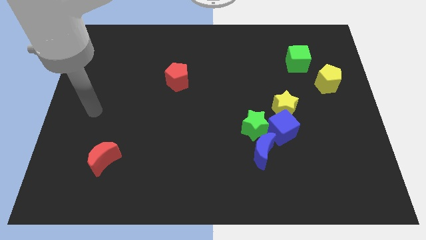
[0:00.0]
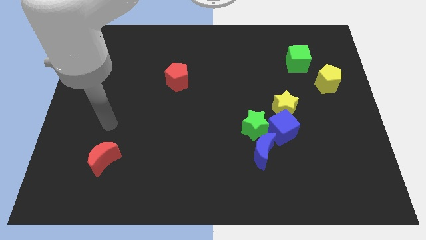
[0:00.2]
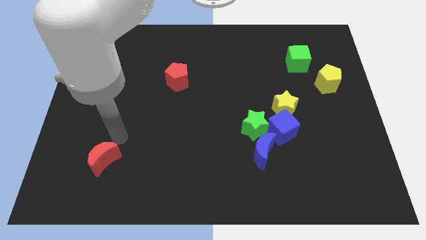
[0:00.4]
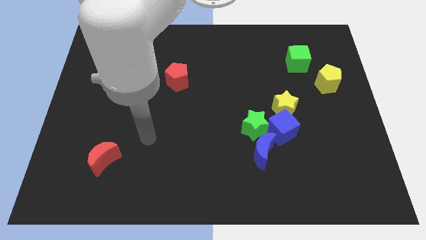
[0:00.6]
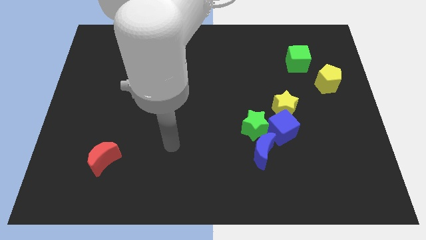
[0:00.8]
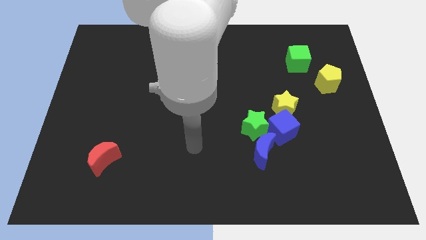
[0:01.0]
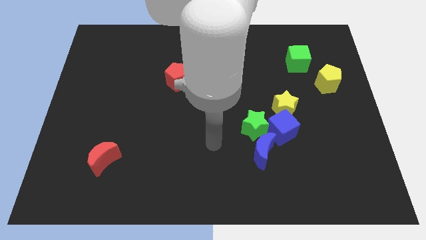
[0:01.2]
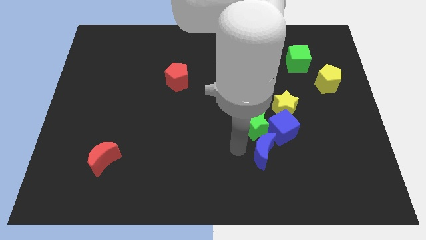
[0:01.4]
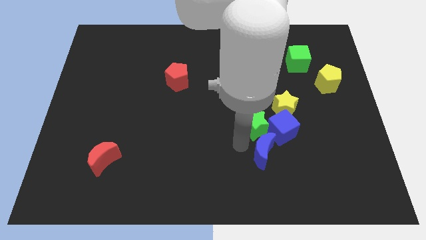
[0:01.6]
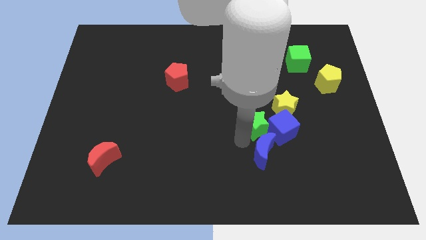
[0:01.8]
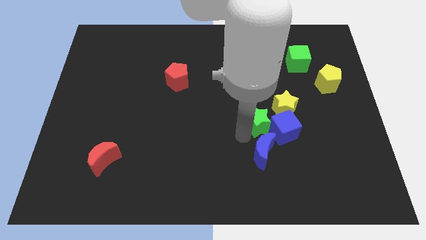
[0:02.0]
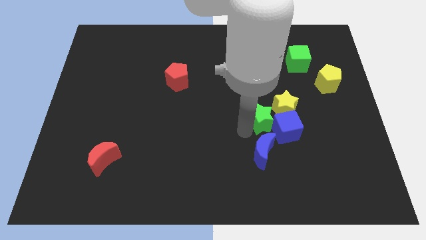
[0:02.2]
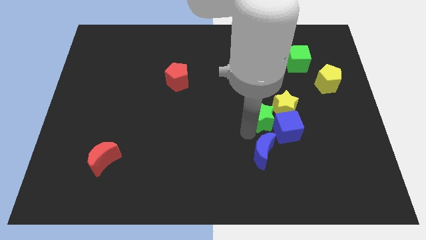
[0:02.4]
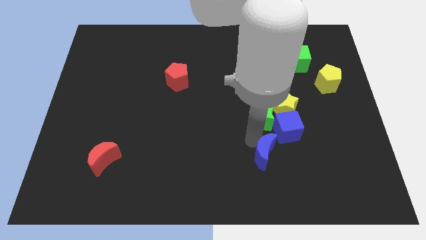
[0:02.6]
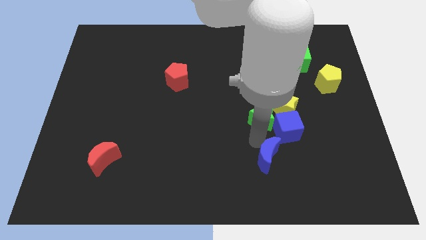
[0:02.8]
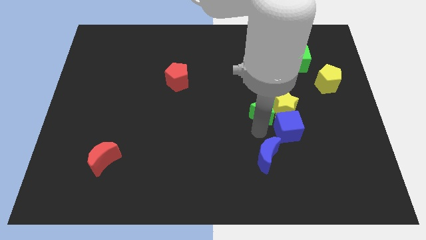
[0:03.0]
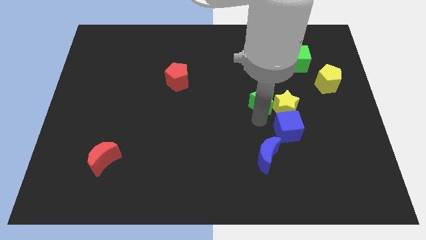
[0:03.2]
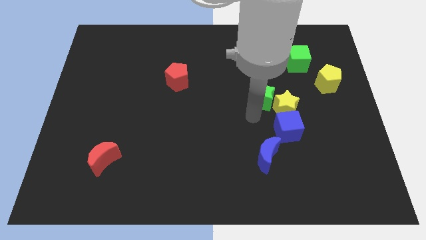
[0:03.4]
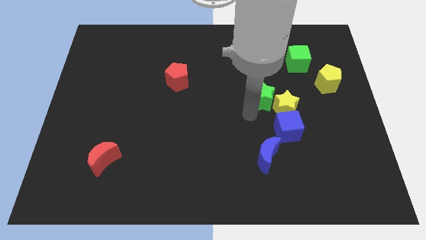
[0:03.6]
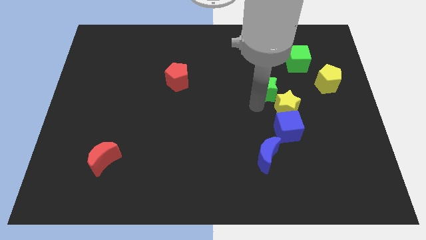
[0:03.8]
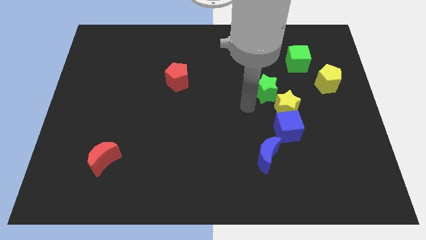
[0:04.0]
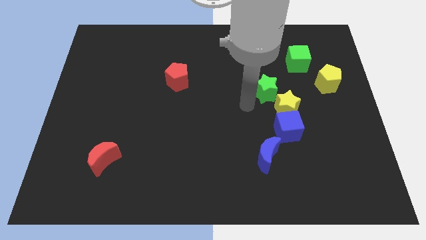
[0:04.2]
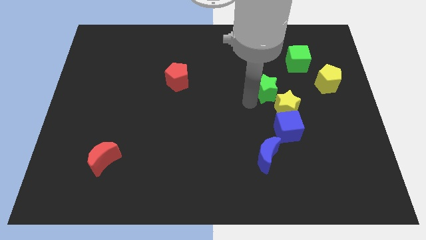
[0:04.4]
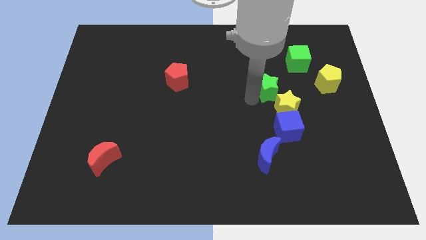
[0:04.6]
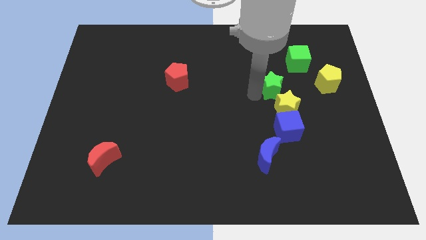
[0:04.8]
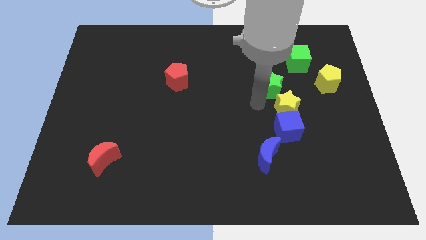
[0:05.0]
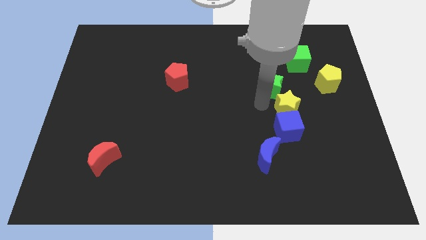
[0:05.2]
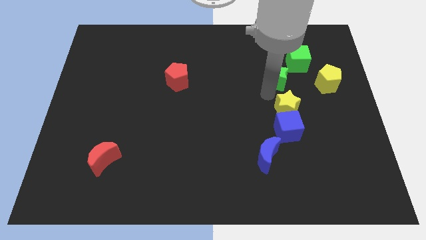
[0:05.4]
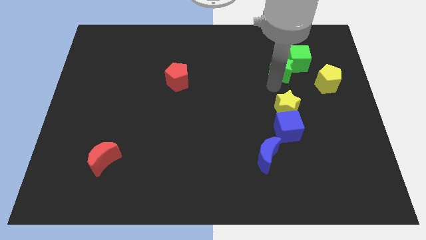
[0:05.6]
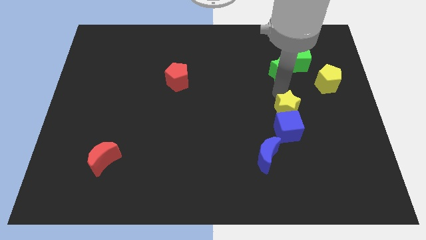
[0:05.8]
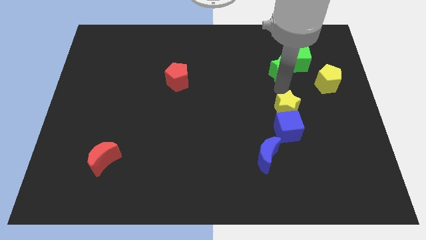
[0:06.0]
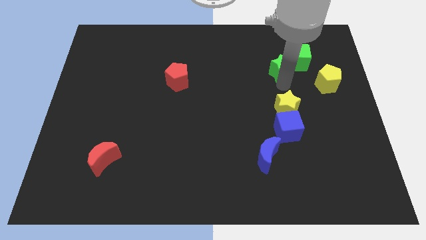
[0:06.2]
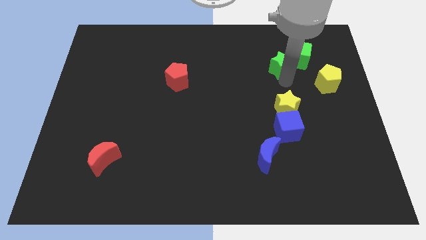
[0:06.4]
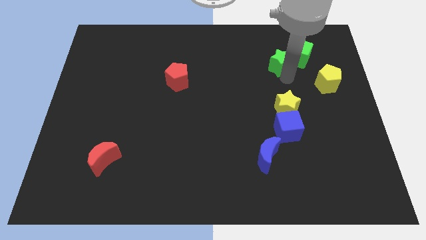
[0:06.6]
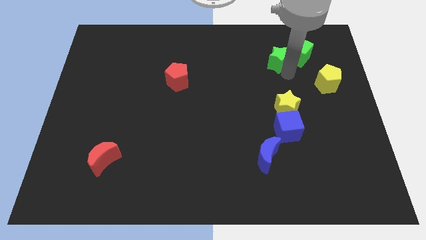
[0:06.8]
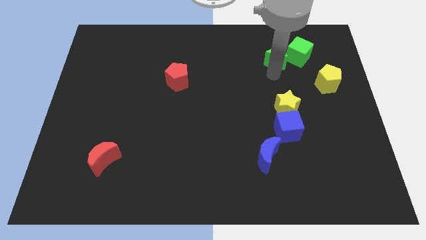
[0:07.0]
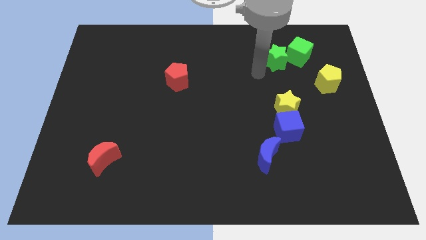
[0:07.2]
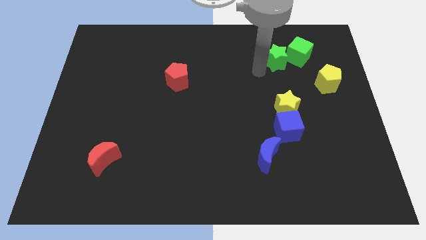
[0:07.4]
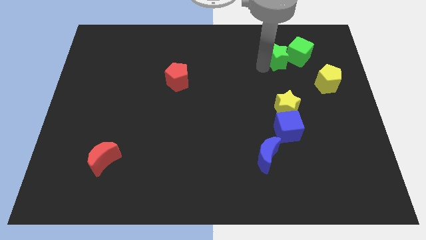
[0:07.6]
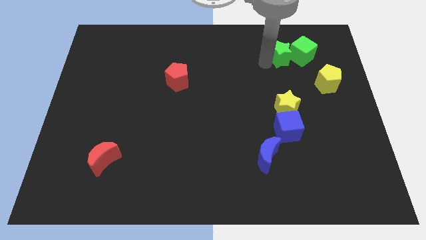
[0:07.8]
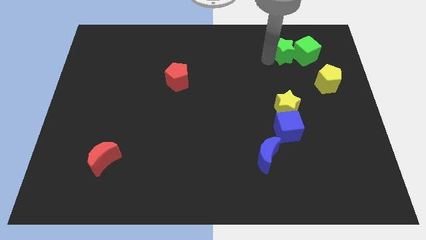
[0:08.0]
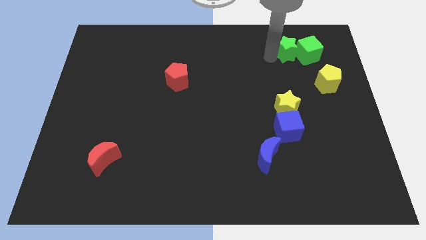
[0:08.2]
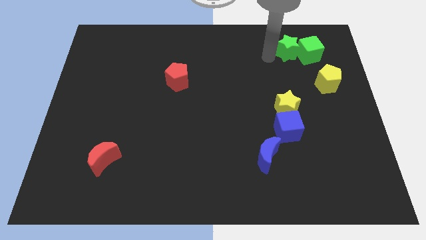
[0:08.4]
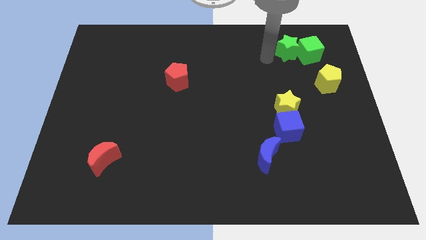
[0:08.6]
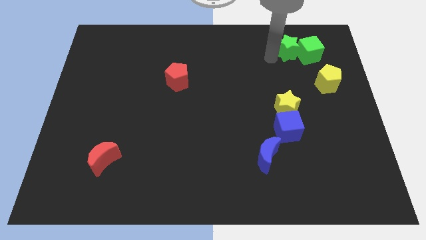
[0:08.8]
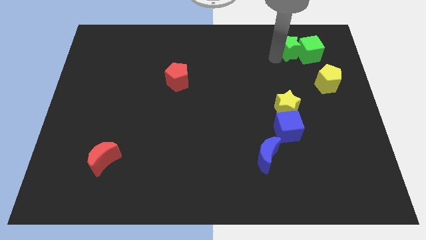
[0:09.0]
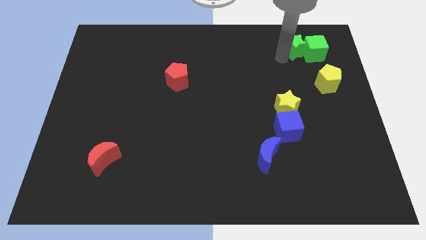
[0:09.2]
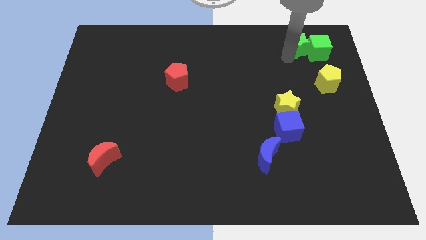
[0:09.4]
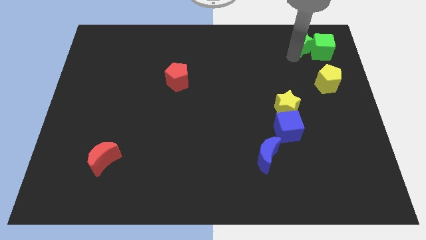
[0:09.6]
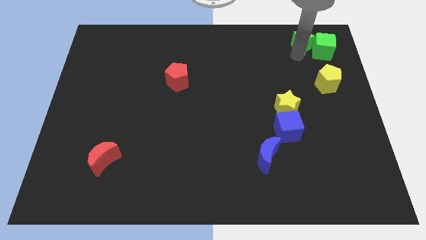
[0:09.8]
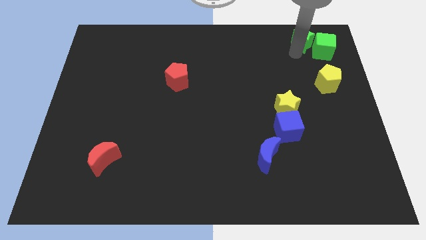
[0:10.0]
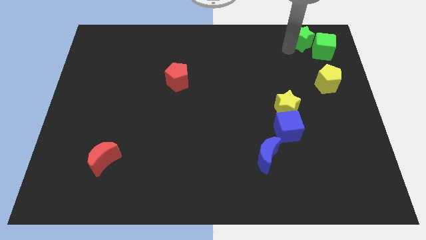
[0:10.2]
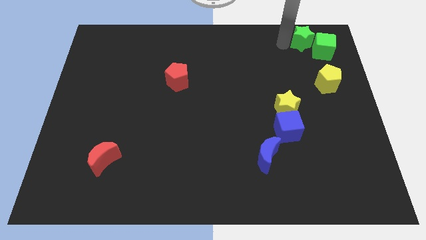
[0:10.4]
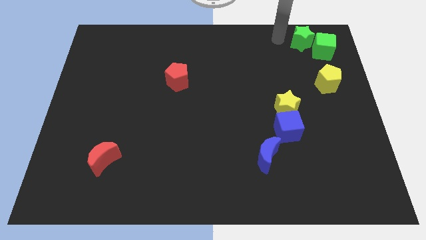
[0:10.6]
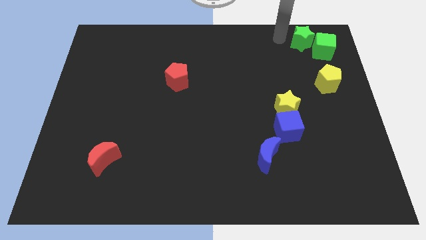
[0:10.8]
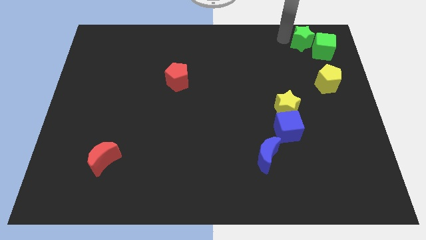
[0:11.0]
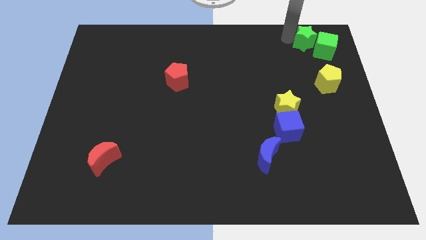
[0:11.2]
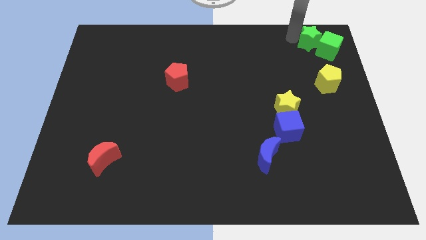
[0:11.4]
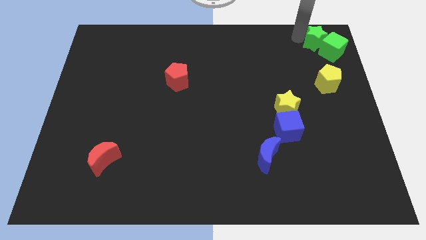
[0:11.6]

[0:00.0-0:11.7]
move the green star to the top right of the board
